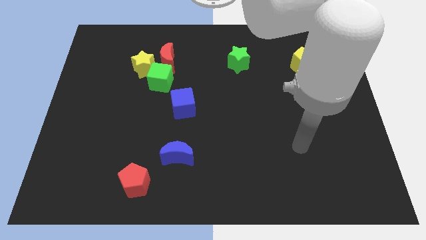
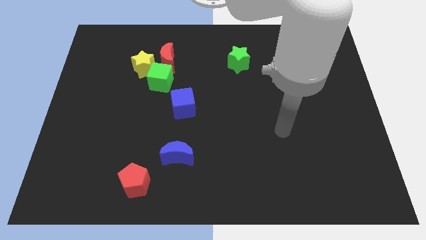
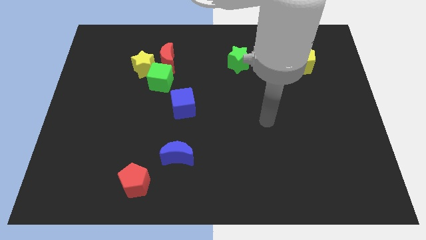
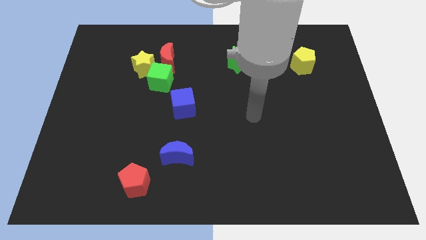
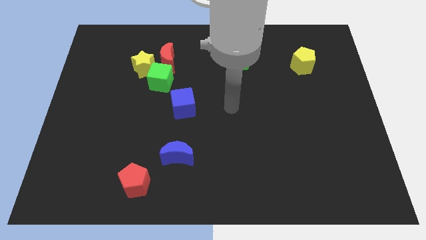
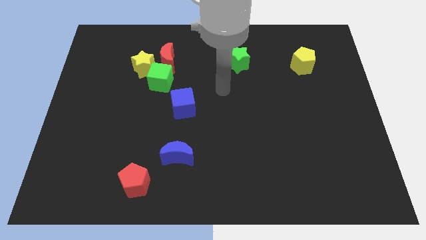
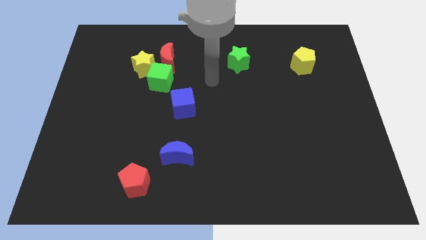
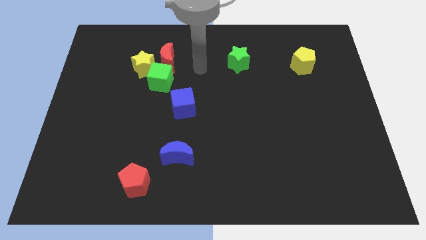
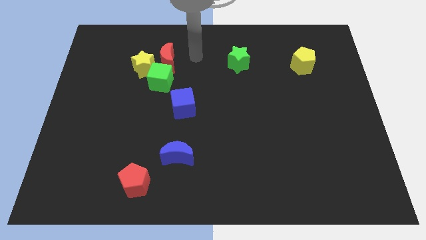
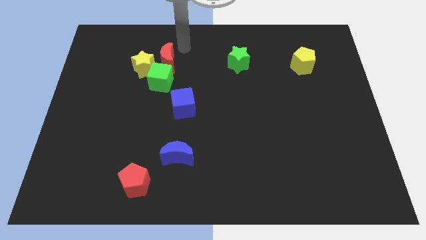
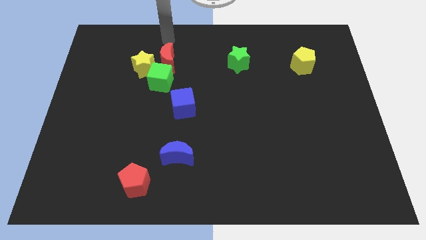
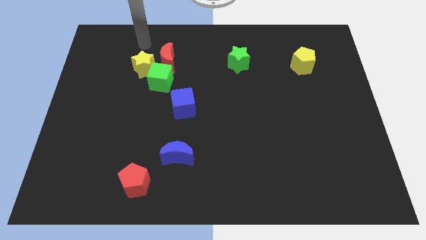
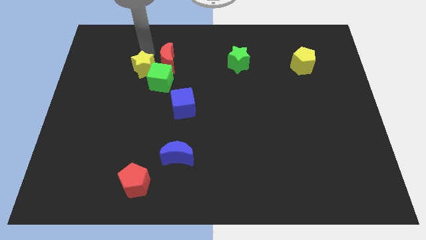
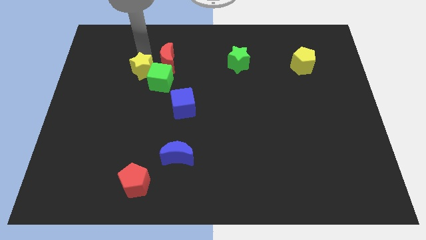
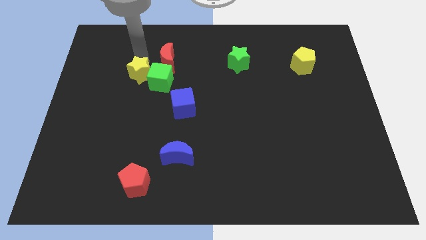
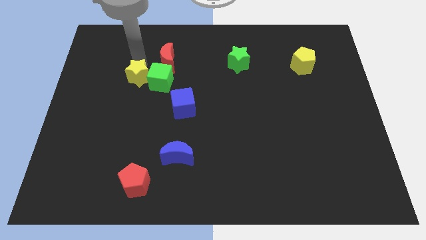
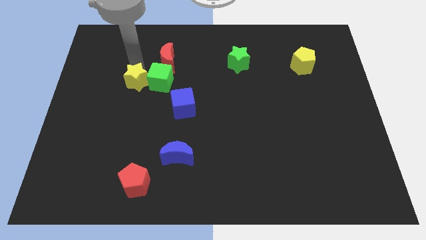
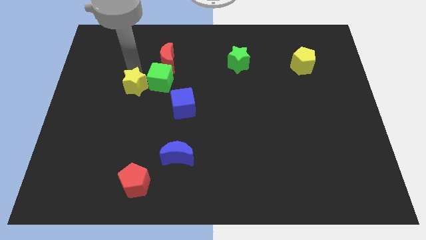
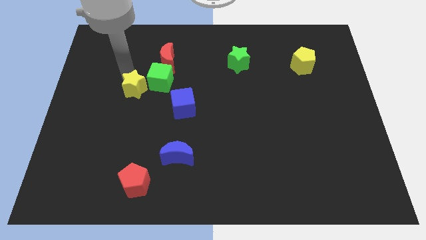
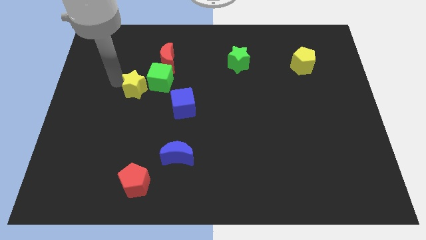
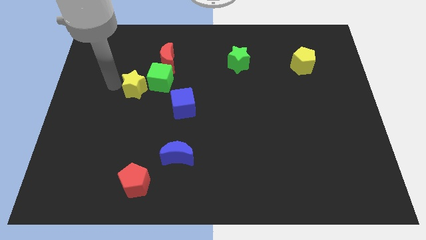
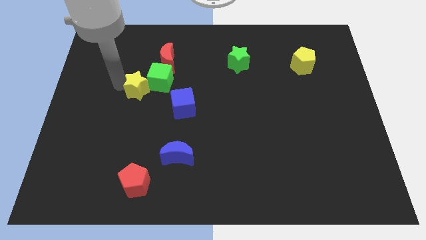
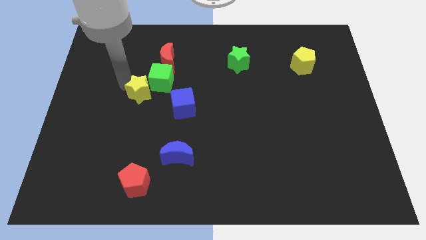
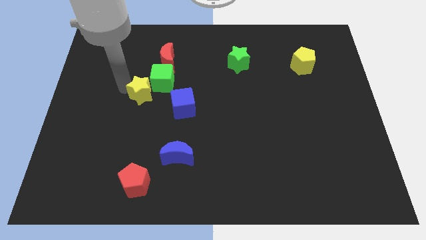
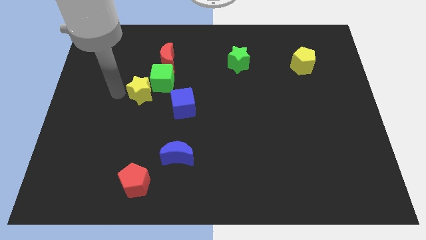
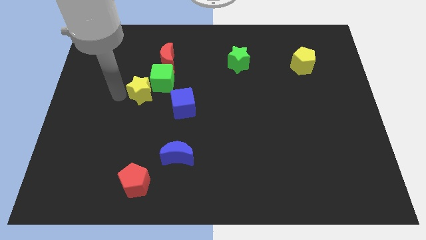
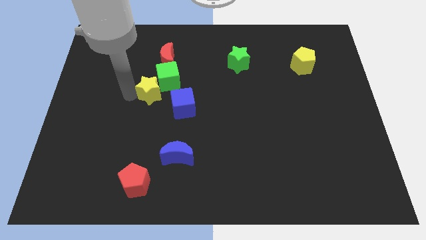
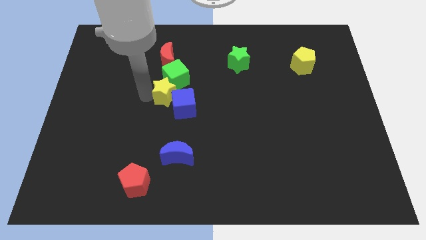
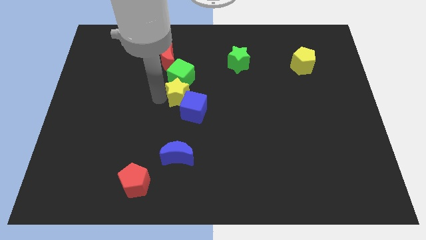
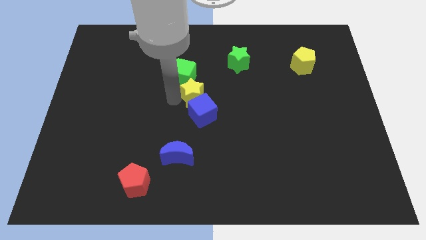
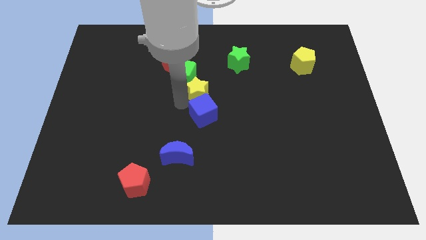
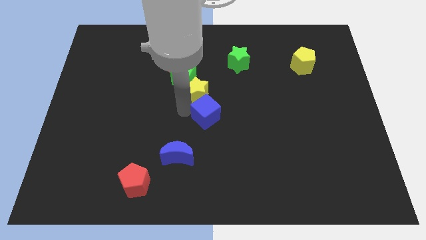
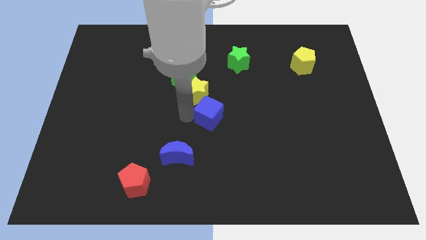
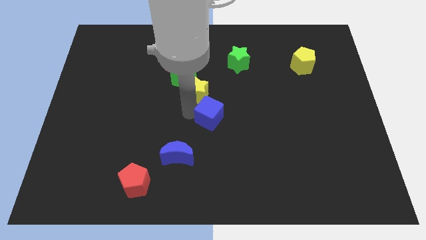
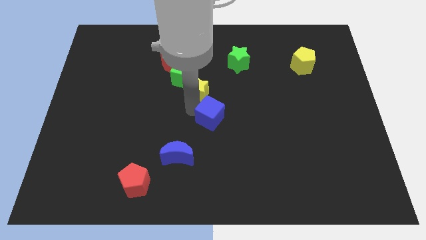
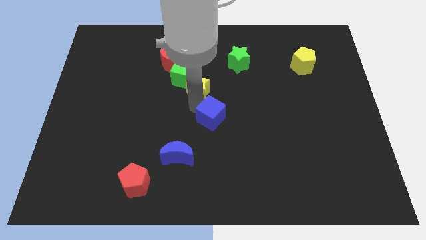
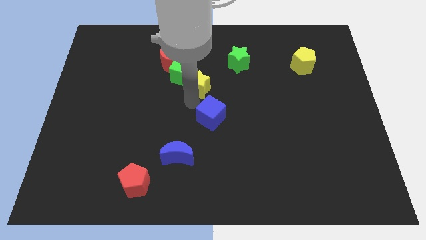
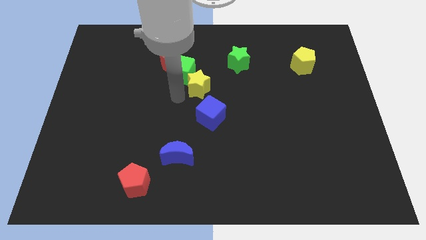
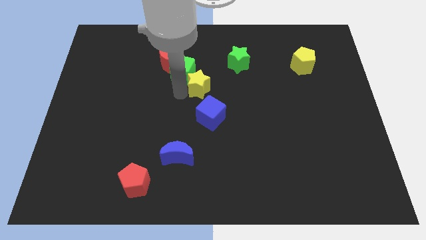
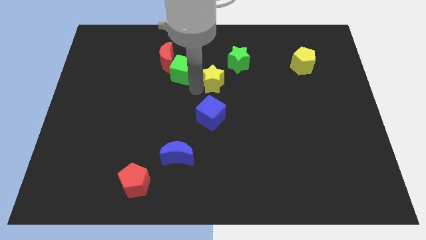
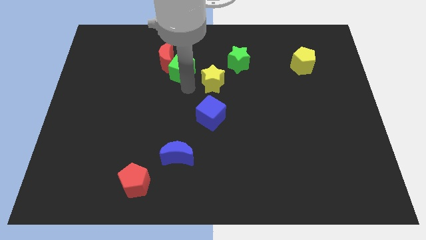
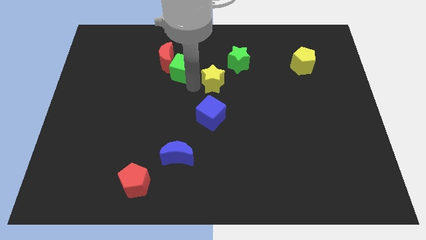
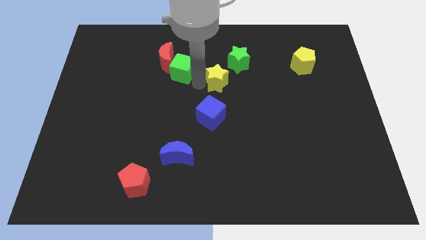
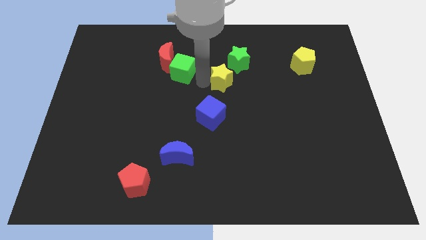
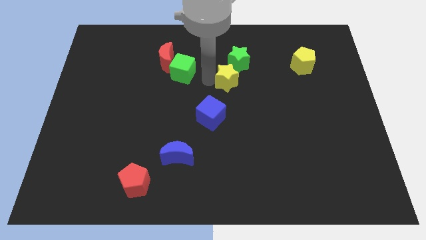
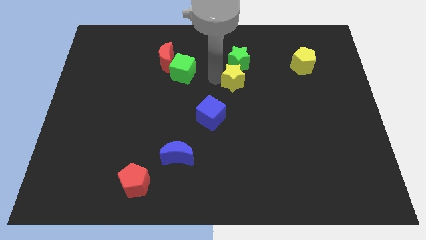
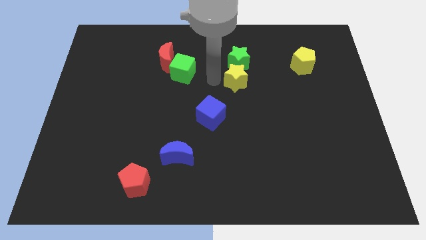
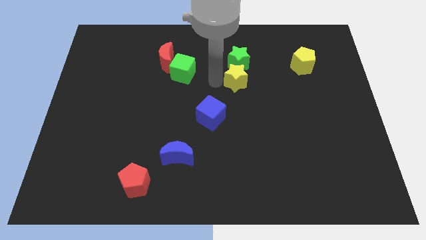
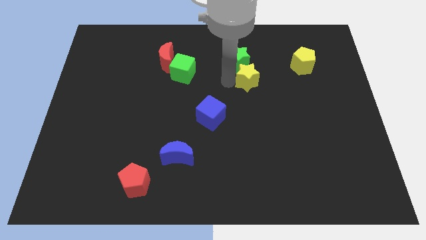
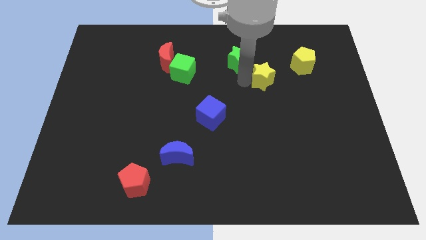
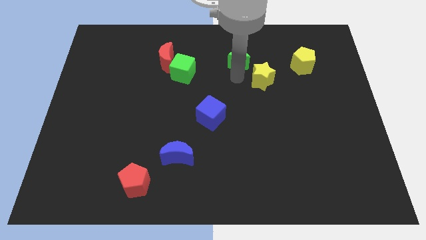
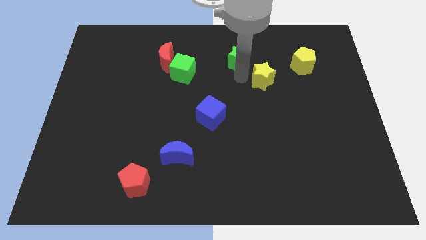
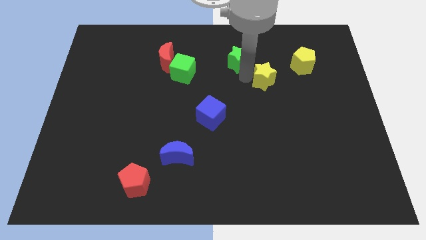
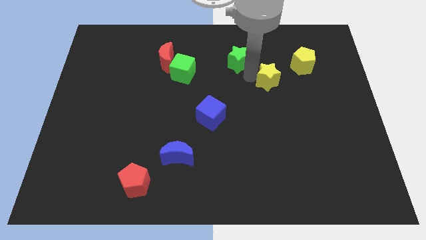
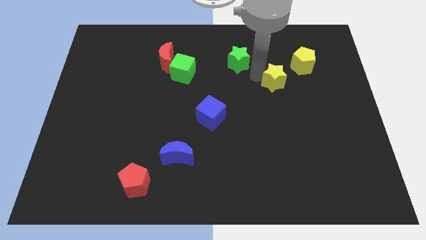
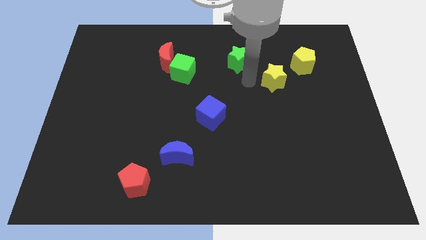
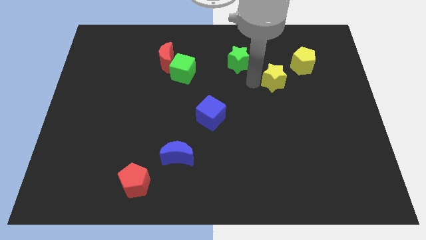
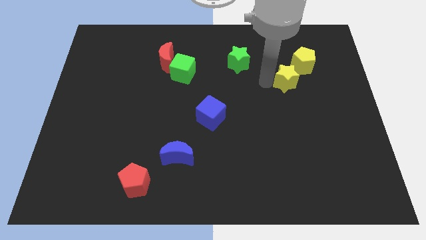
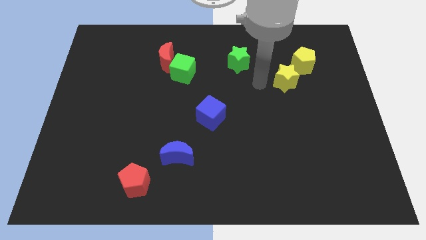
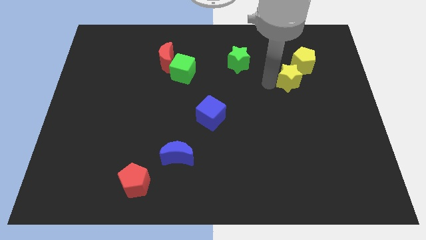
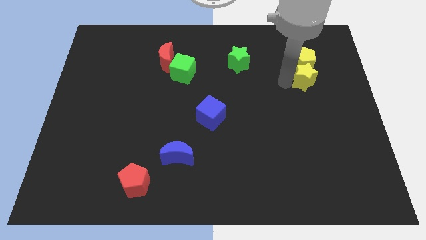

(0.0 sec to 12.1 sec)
move the yellow star to the bottom right side of the yellow pentagon

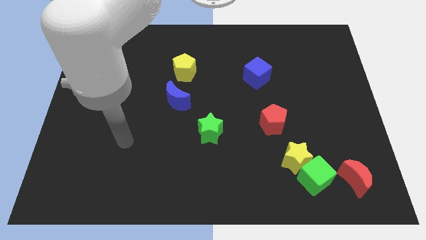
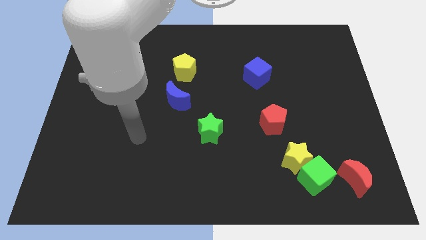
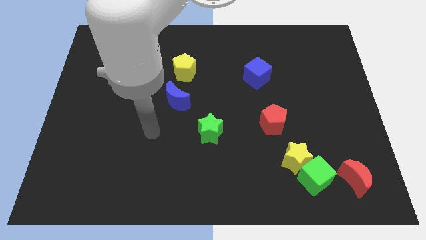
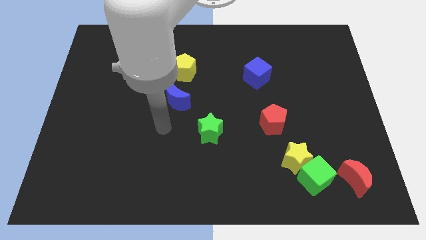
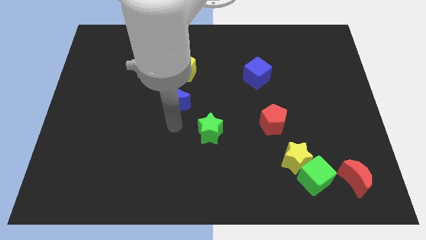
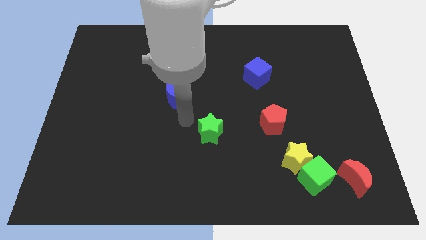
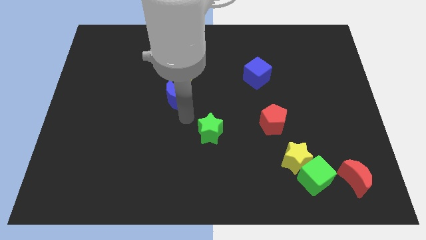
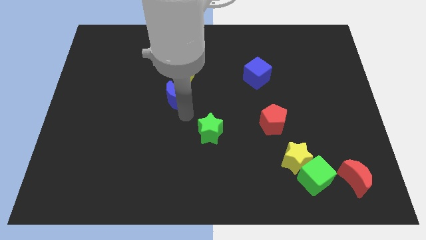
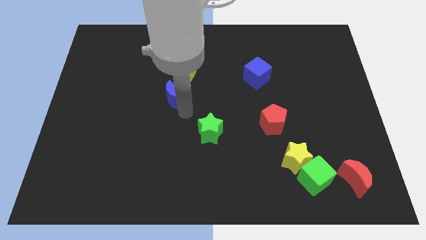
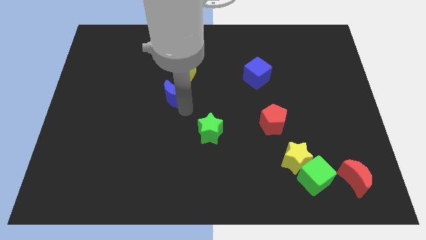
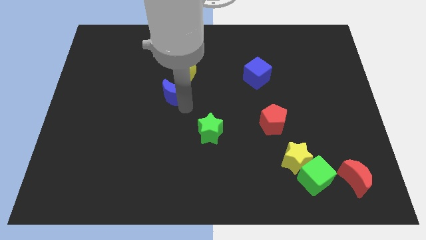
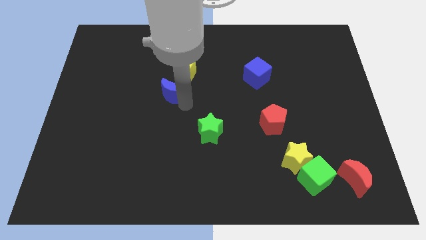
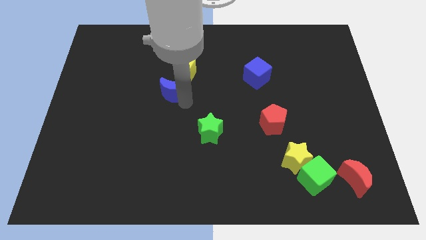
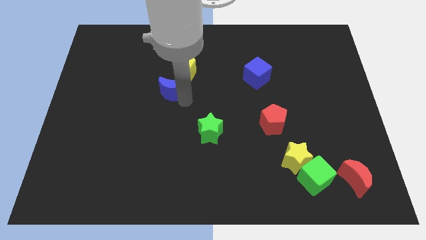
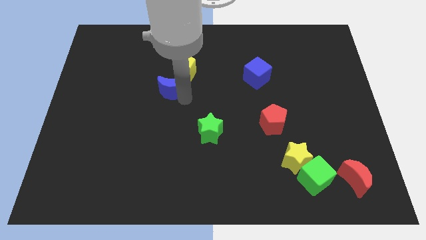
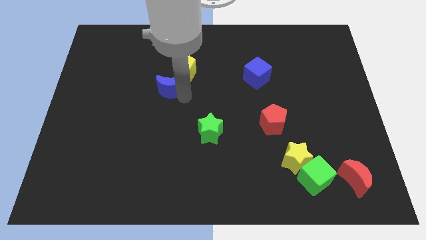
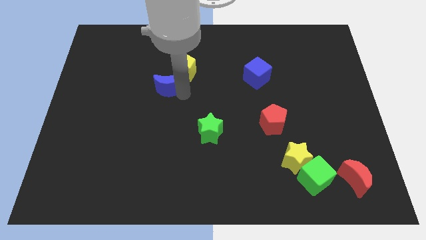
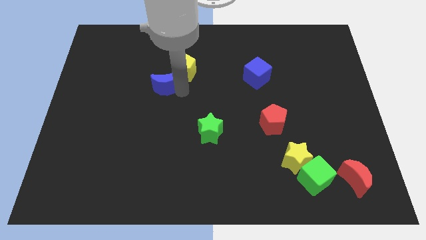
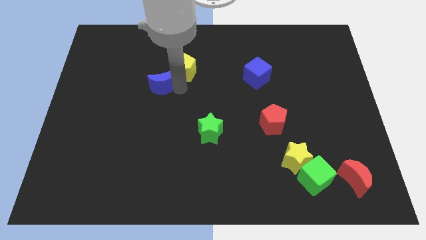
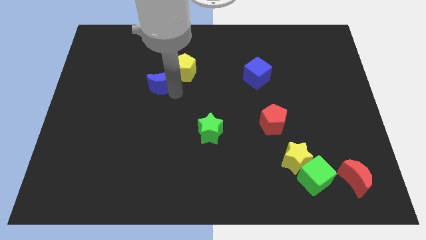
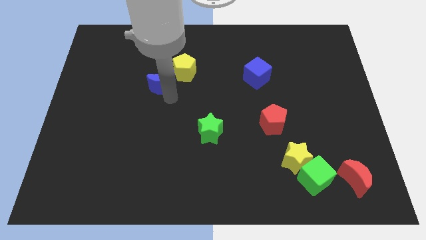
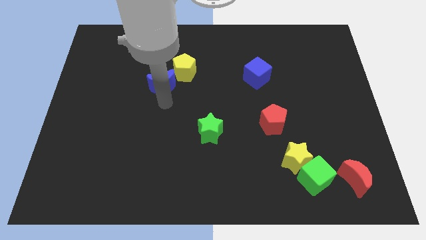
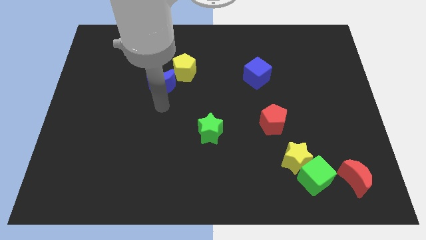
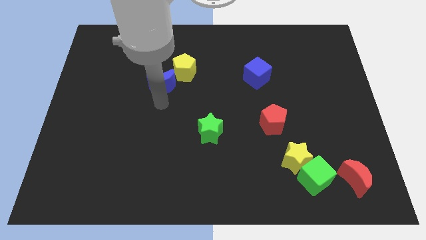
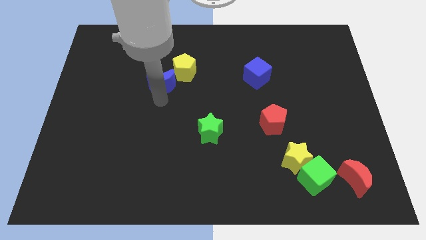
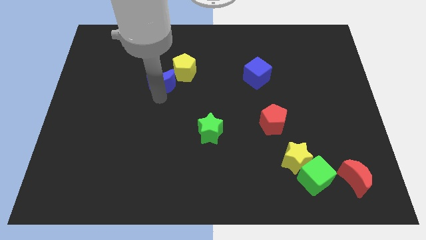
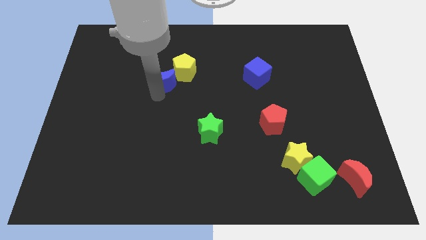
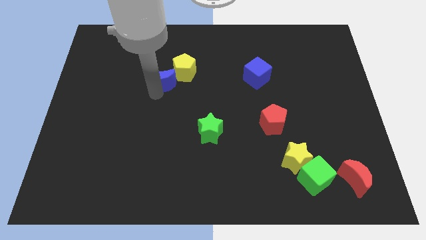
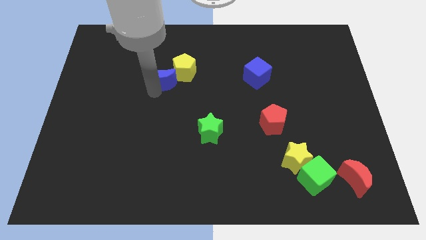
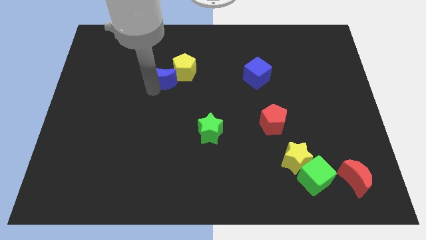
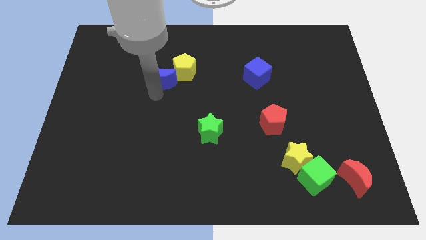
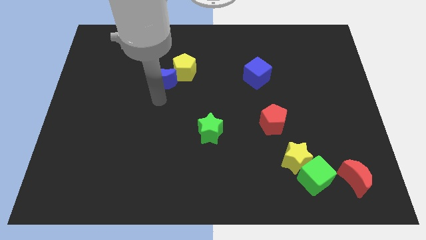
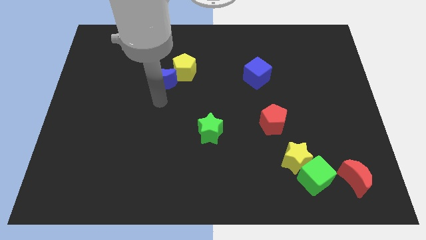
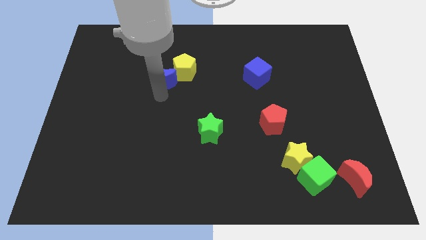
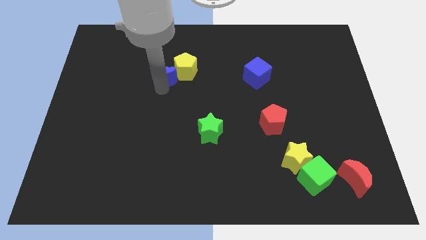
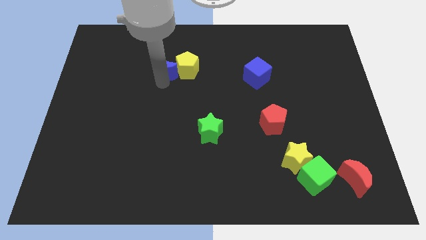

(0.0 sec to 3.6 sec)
put the blue moon to the top left of the yellow pentagon
